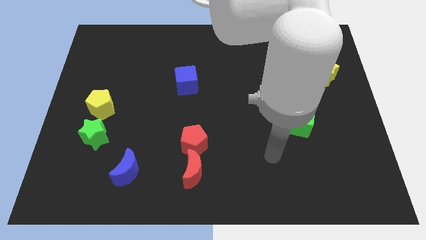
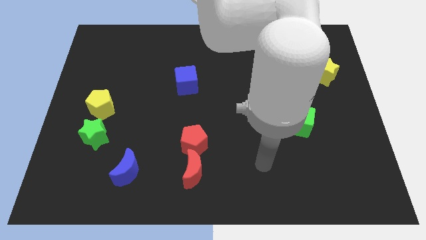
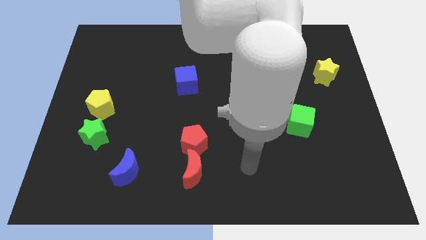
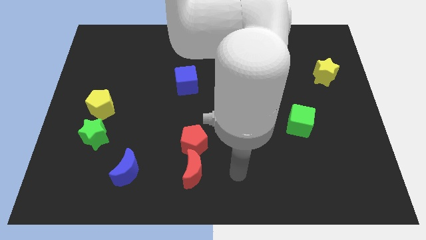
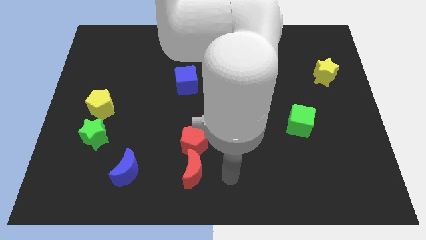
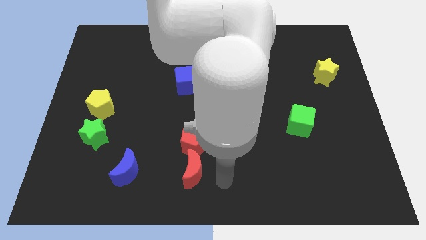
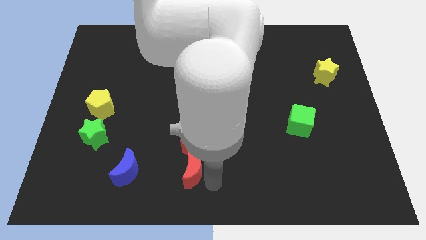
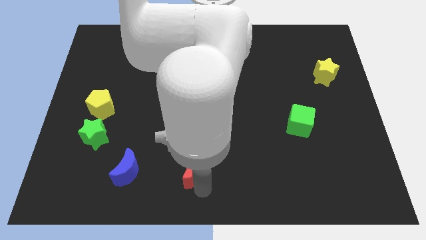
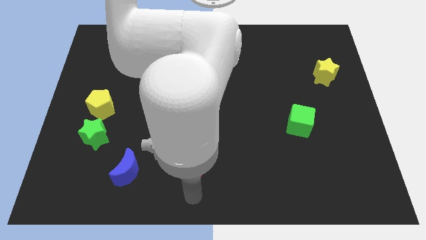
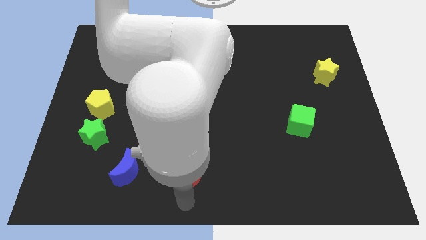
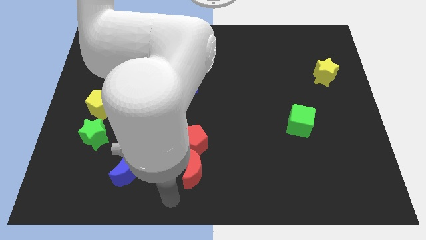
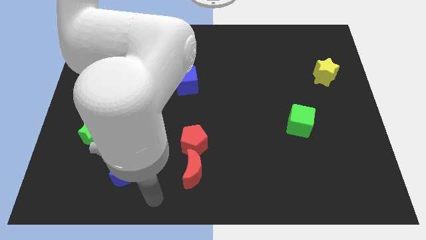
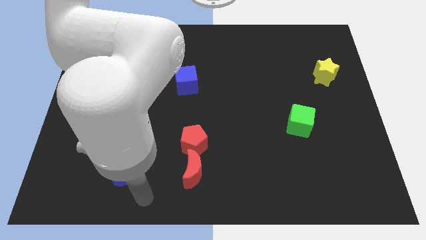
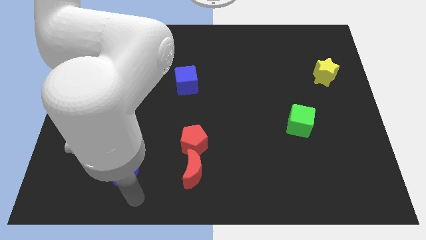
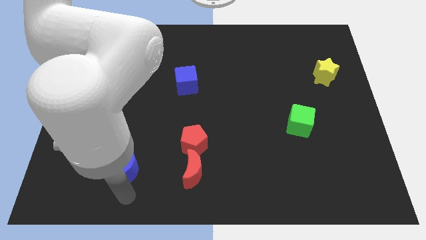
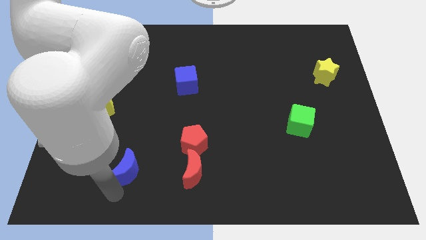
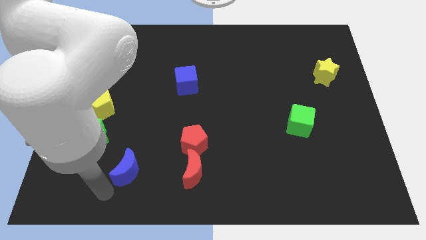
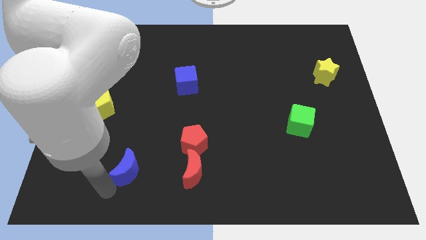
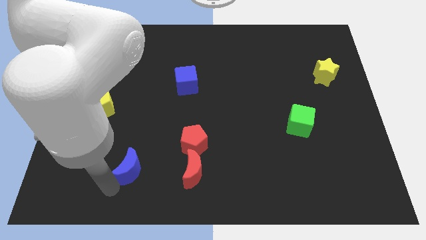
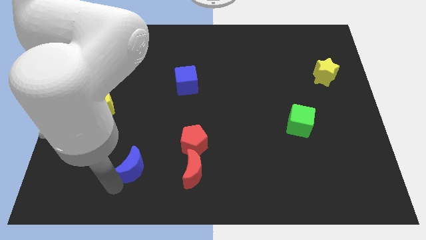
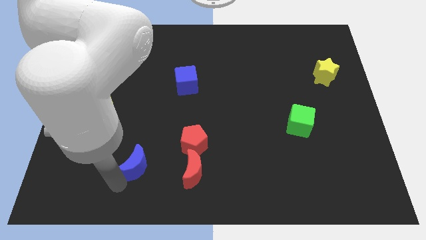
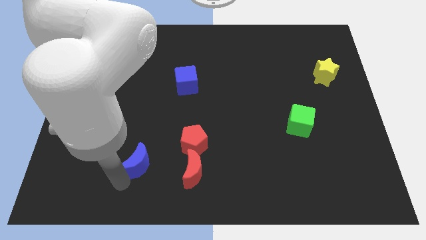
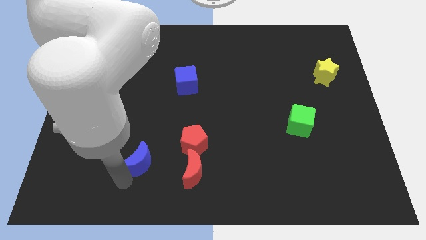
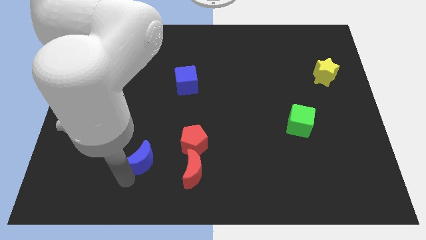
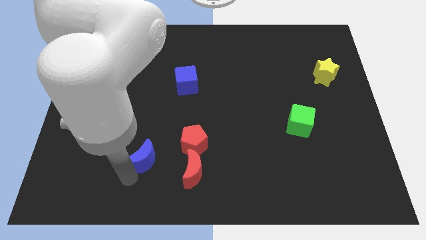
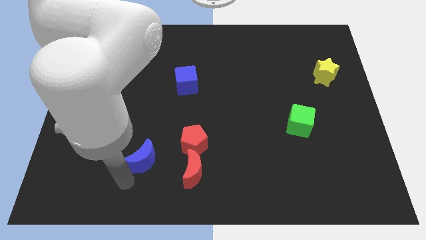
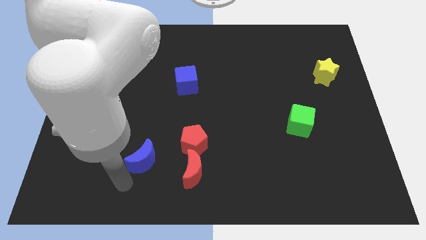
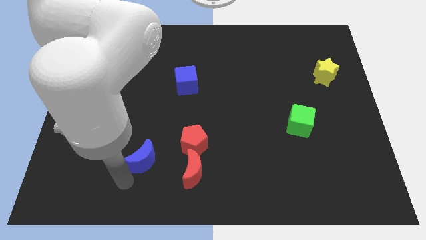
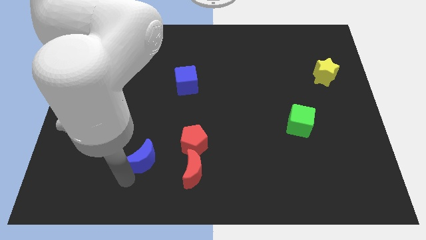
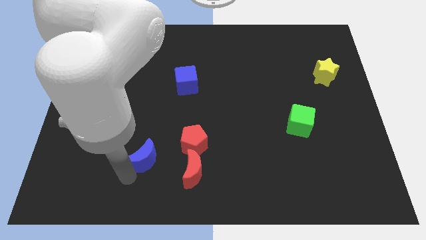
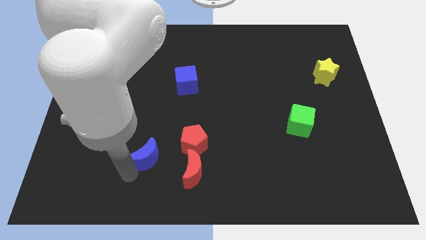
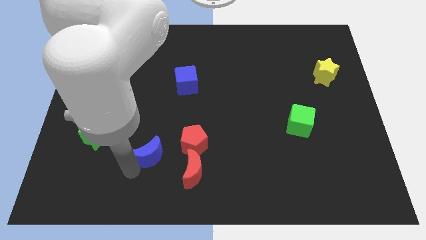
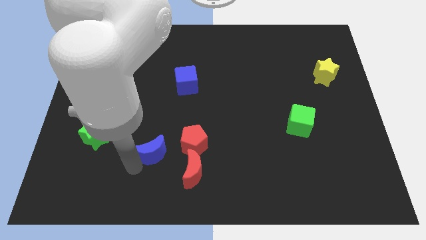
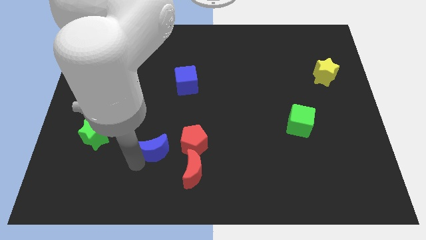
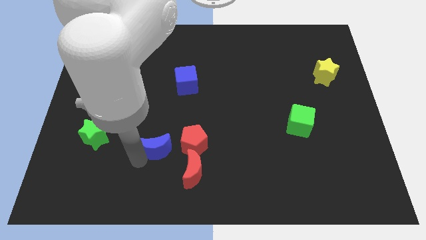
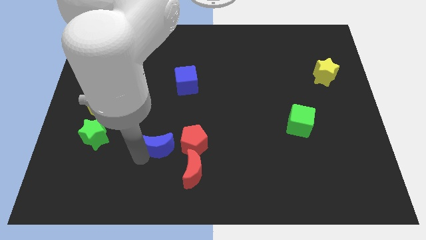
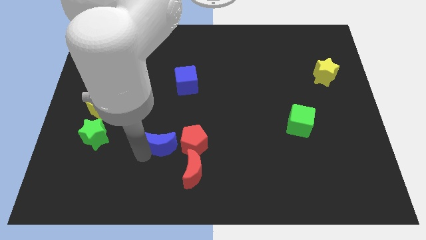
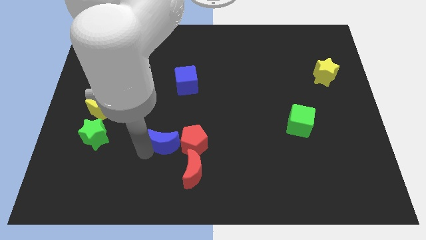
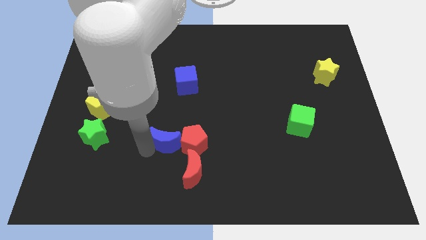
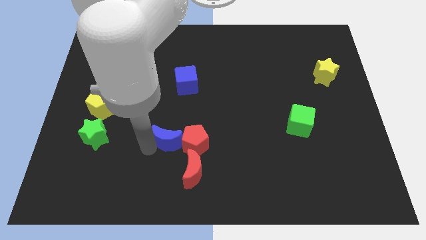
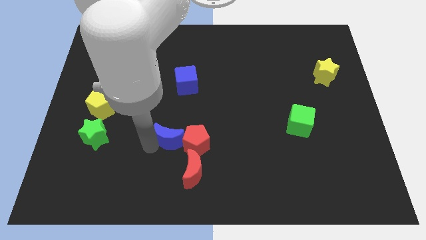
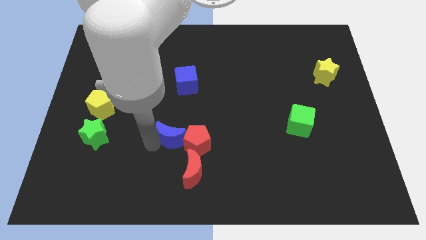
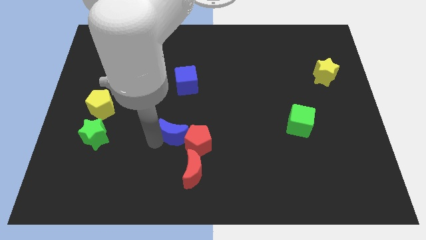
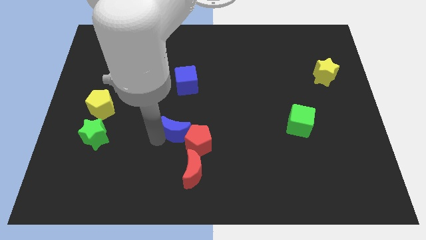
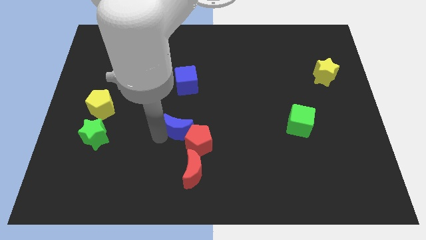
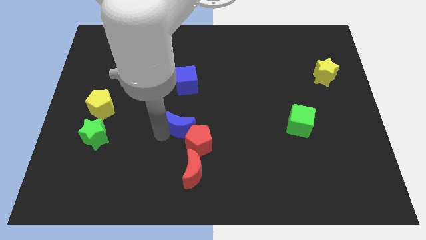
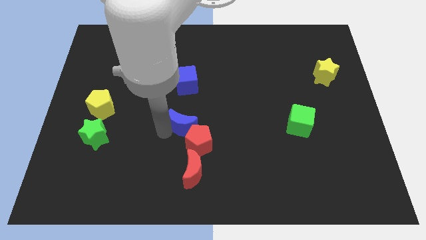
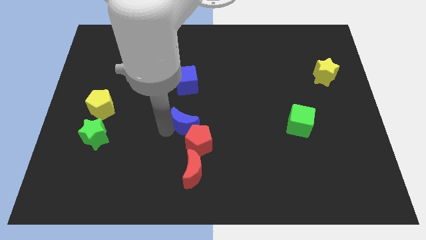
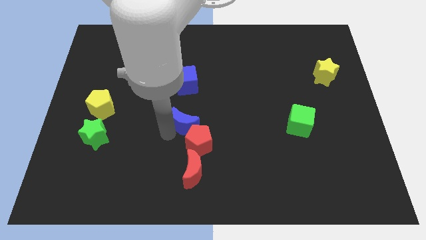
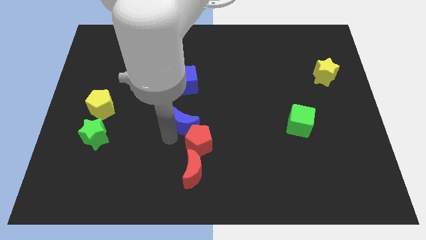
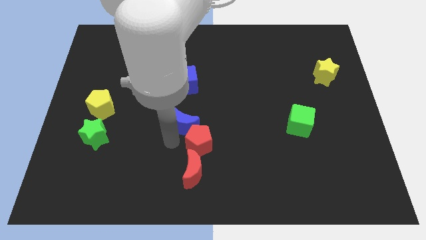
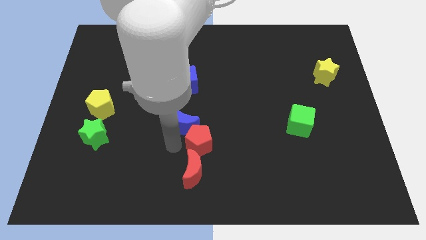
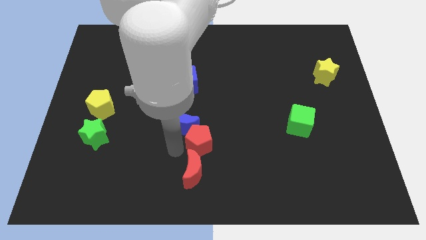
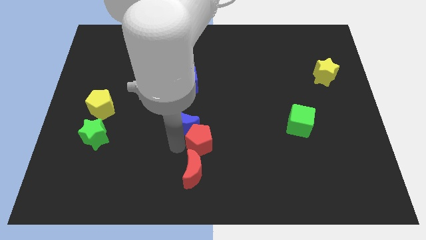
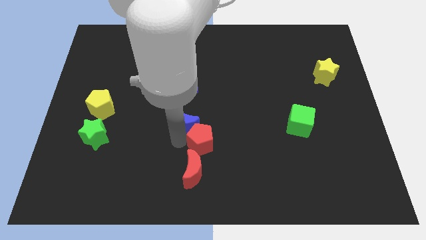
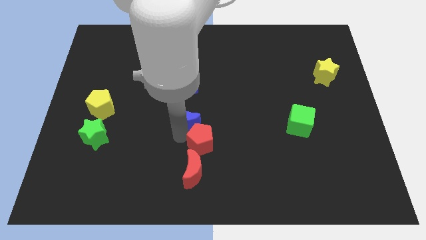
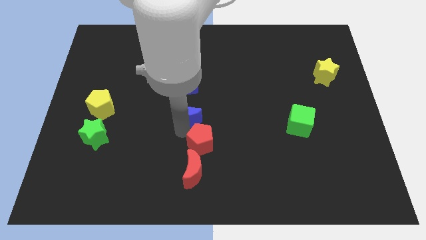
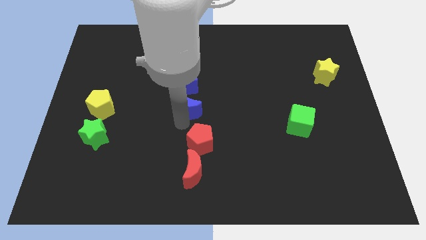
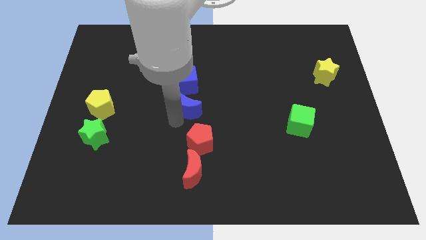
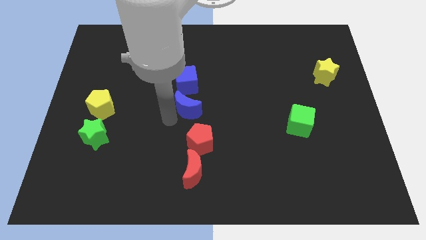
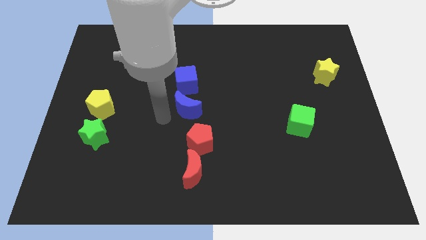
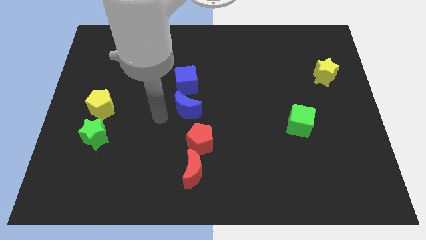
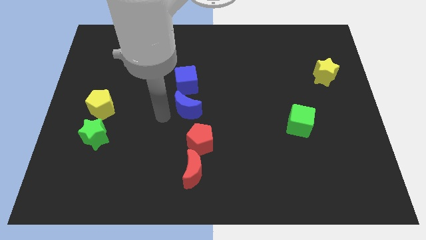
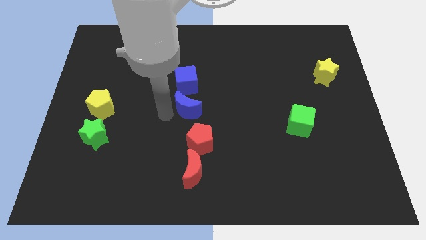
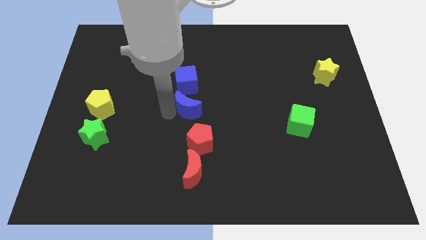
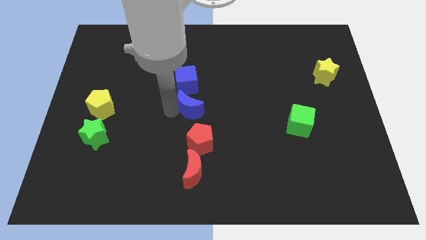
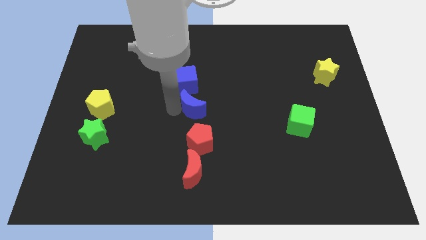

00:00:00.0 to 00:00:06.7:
move the blue moon diagonally up and right

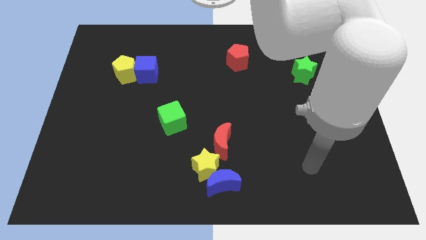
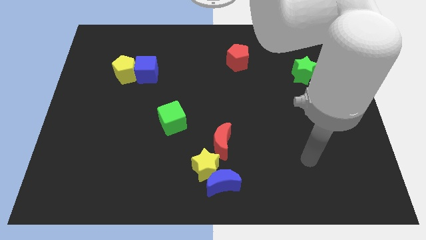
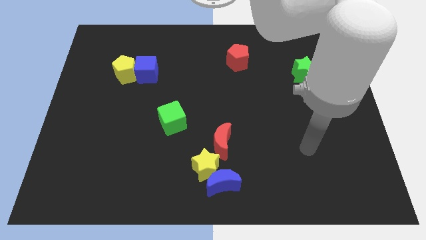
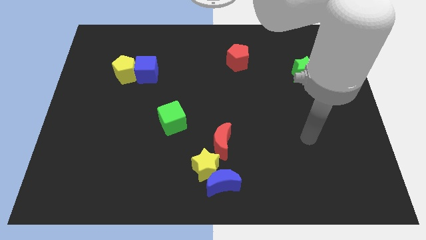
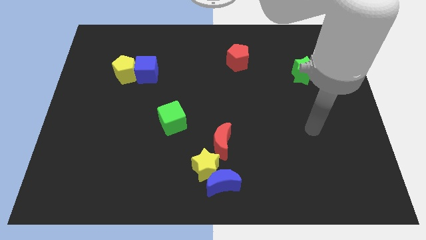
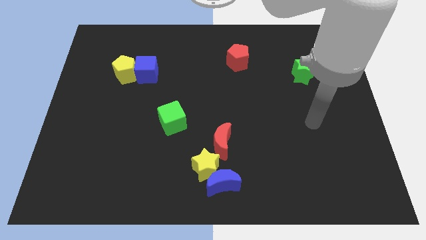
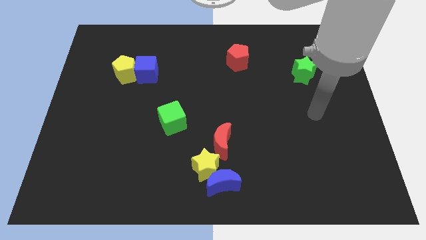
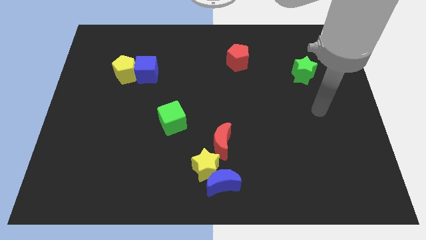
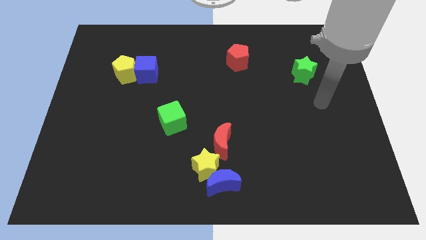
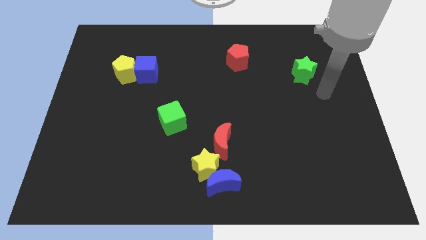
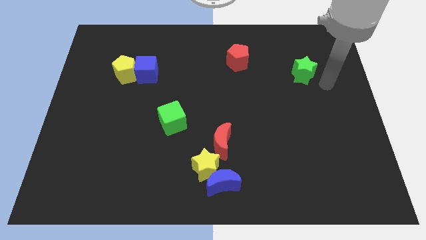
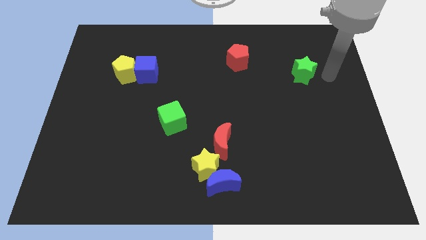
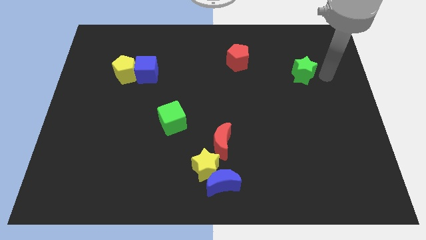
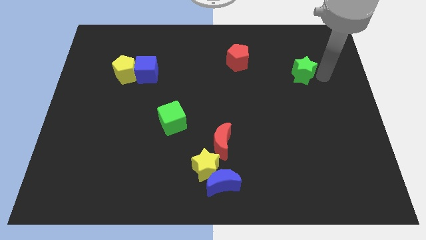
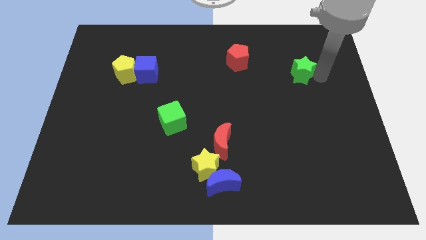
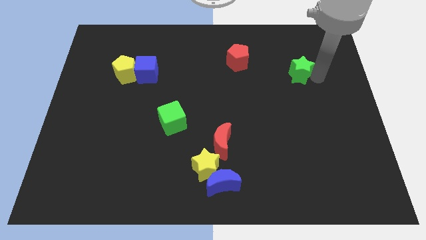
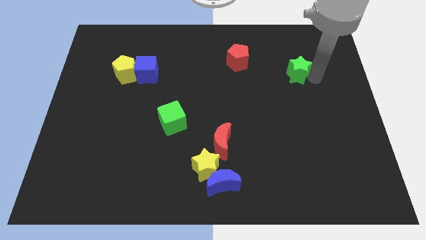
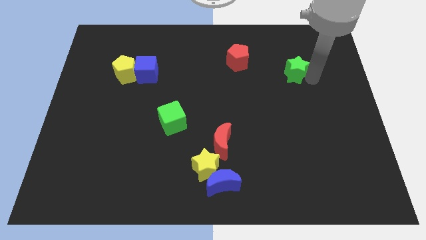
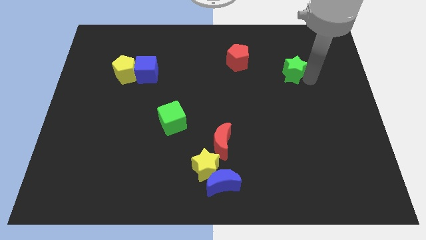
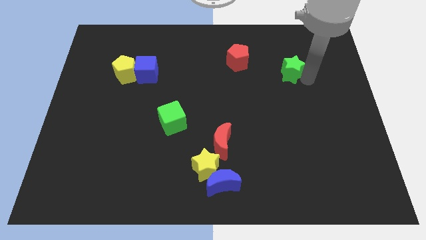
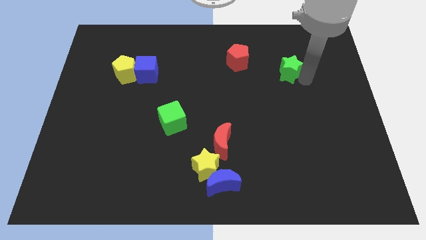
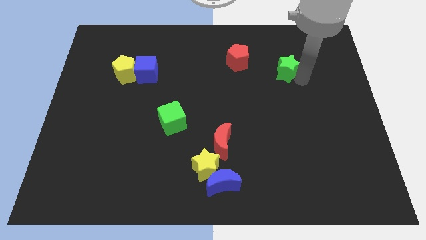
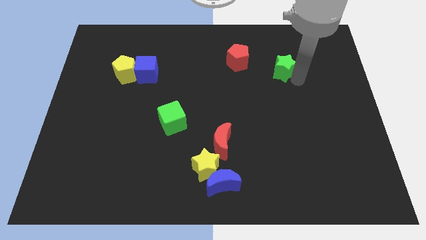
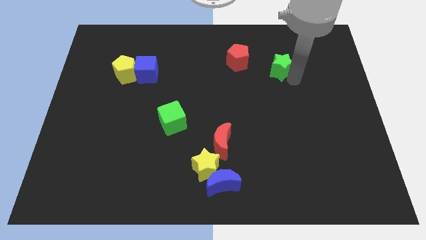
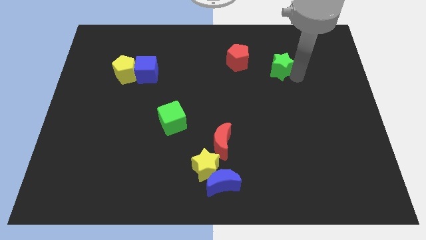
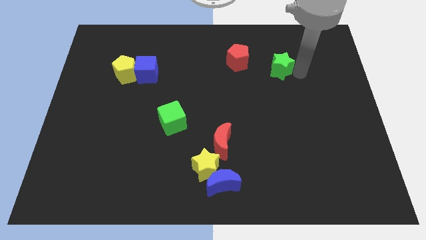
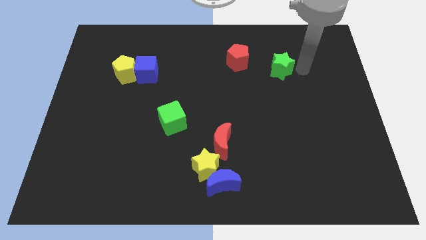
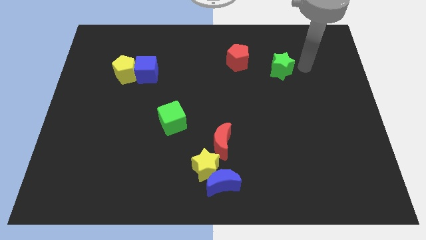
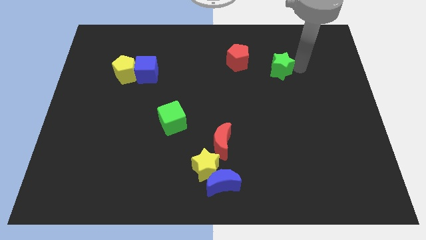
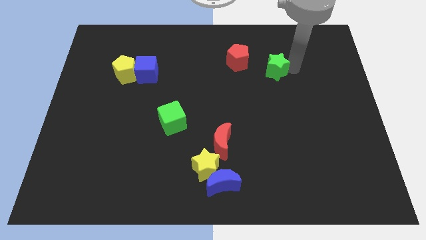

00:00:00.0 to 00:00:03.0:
move the green star left a bit
